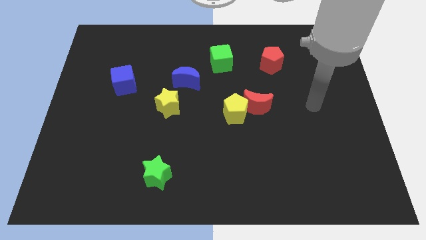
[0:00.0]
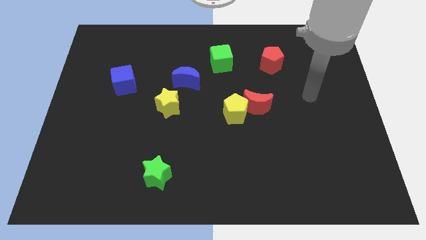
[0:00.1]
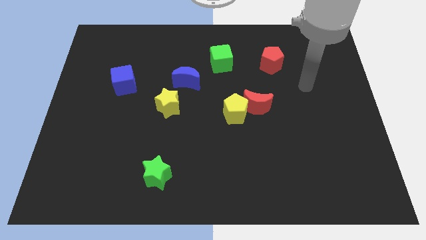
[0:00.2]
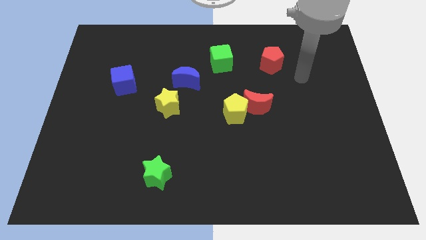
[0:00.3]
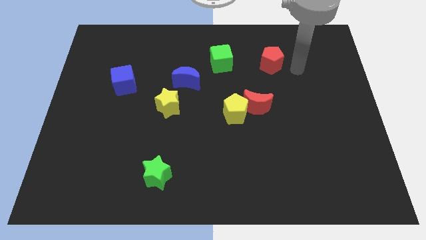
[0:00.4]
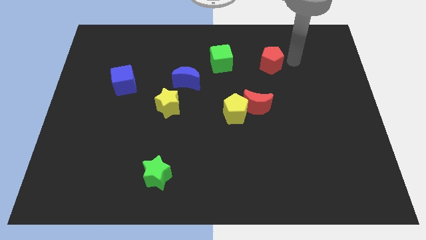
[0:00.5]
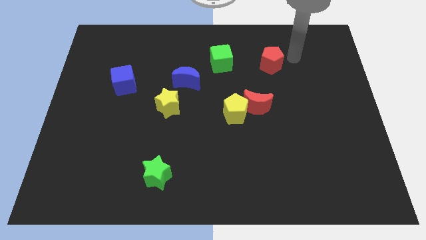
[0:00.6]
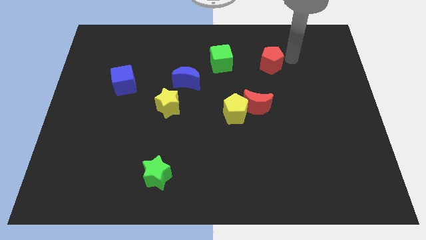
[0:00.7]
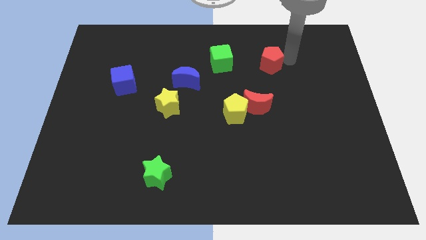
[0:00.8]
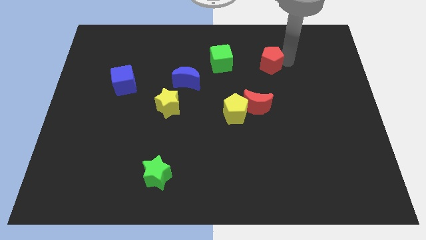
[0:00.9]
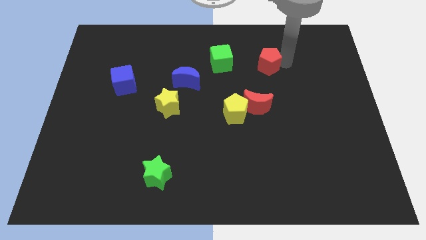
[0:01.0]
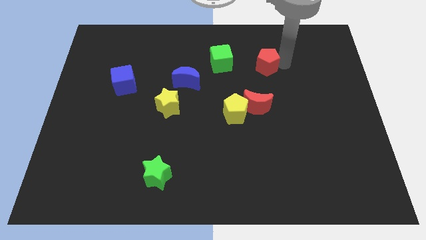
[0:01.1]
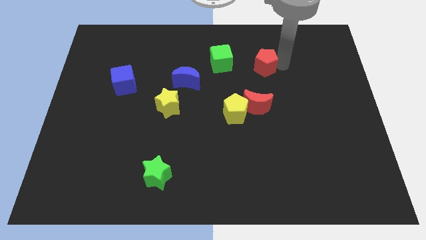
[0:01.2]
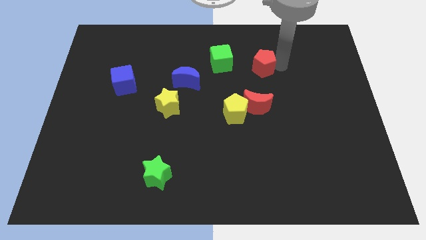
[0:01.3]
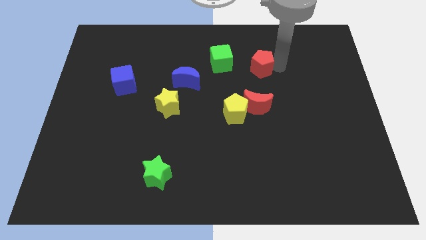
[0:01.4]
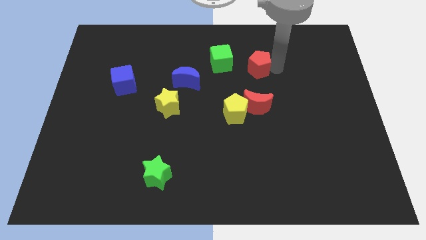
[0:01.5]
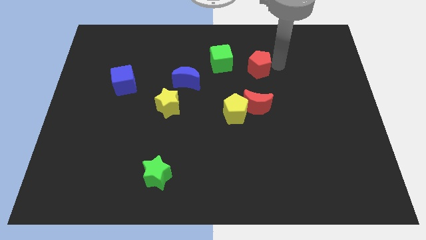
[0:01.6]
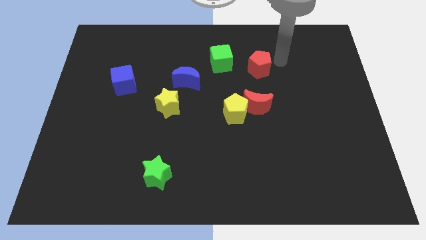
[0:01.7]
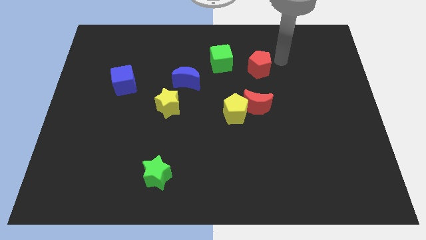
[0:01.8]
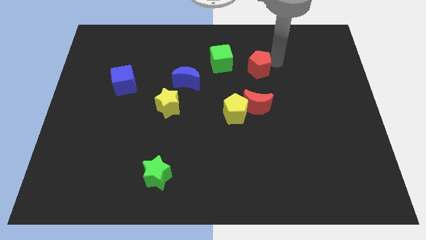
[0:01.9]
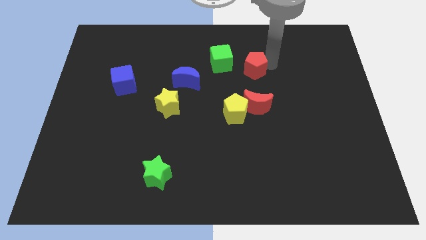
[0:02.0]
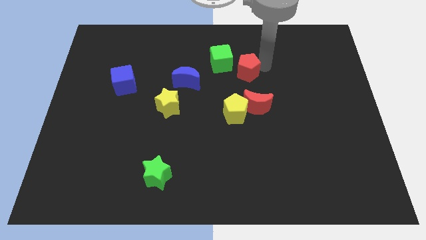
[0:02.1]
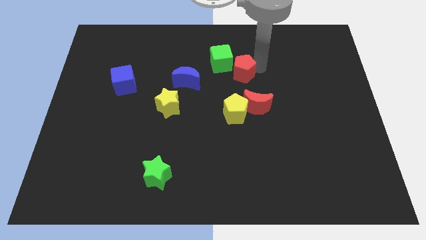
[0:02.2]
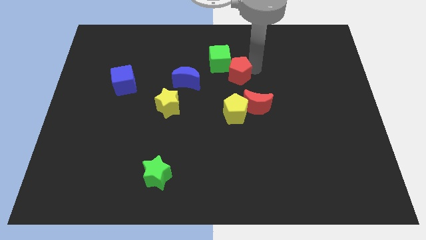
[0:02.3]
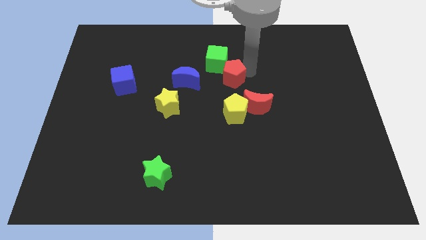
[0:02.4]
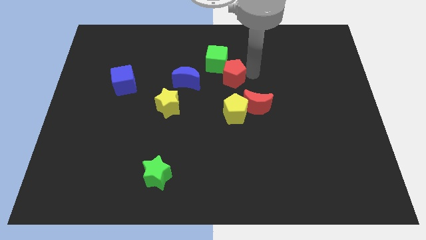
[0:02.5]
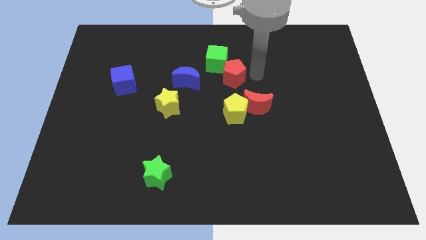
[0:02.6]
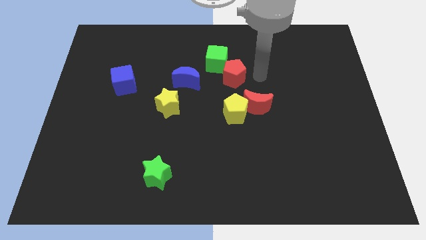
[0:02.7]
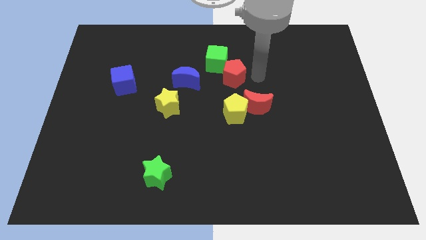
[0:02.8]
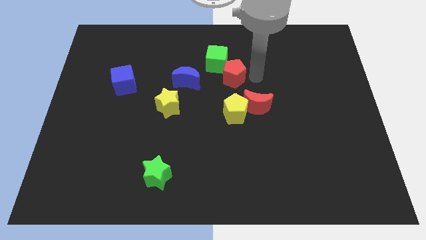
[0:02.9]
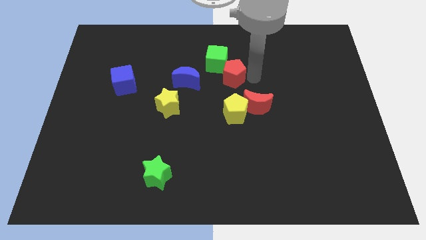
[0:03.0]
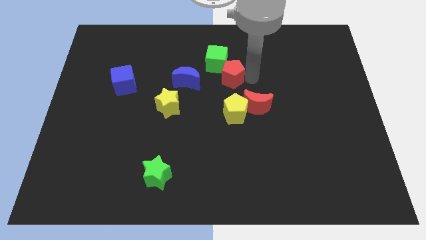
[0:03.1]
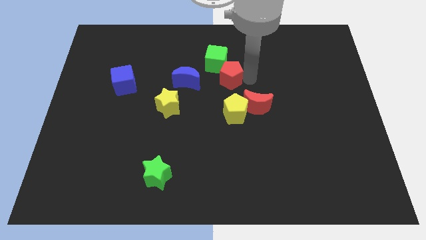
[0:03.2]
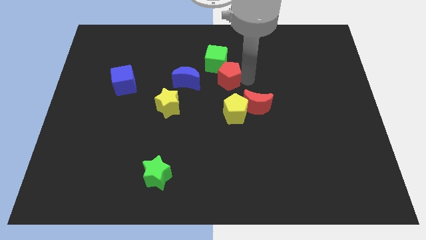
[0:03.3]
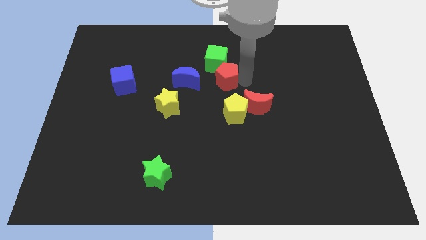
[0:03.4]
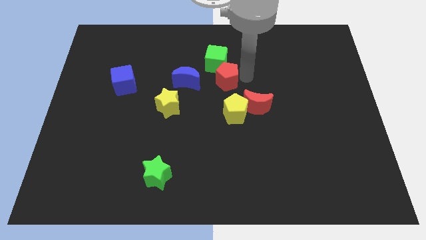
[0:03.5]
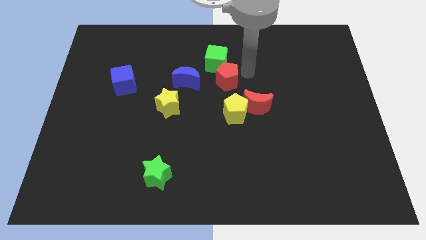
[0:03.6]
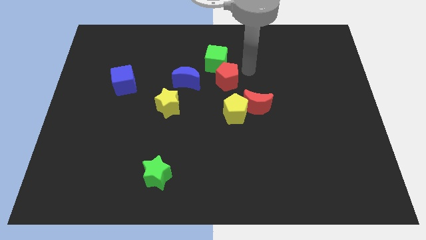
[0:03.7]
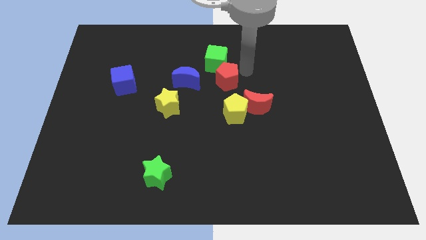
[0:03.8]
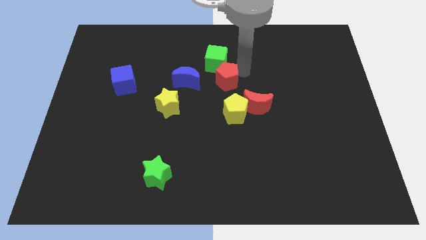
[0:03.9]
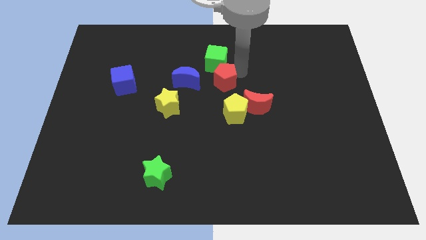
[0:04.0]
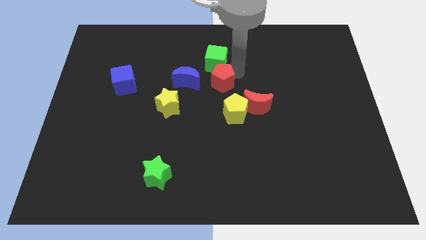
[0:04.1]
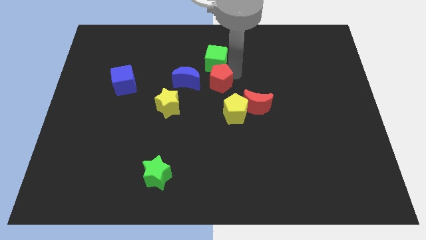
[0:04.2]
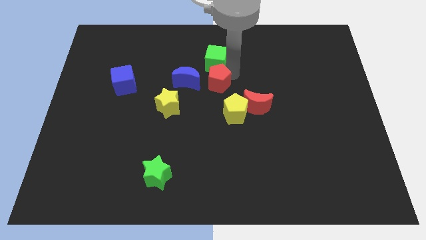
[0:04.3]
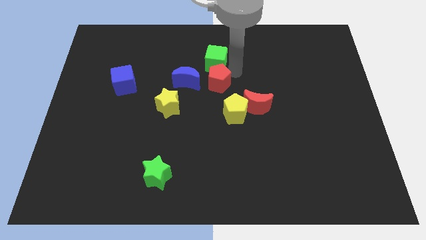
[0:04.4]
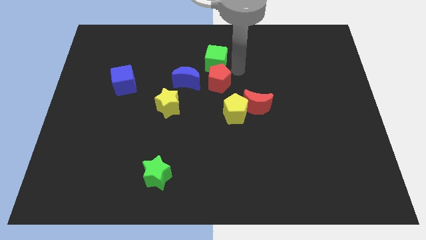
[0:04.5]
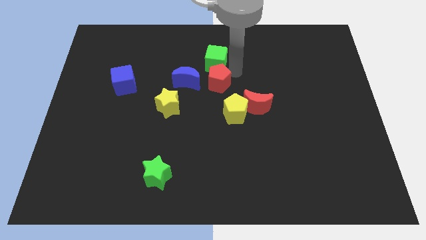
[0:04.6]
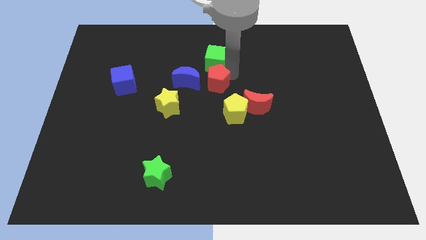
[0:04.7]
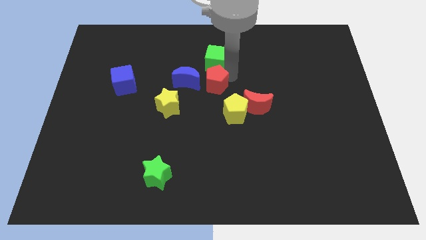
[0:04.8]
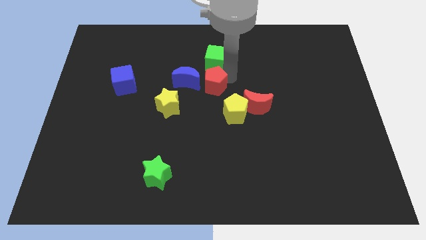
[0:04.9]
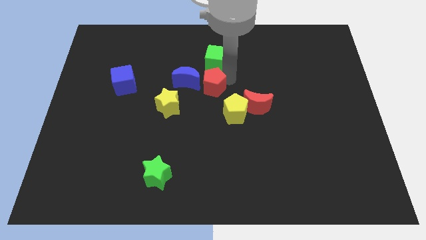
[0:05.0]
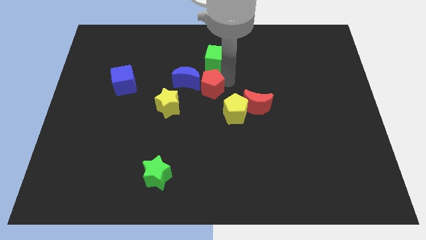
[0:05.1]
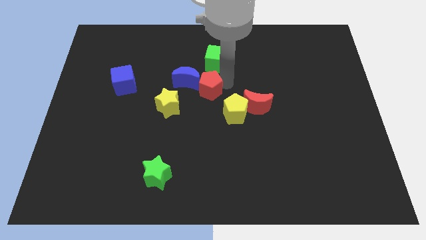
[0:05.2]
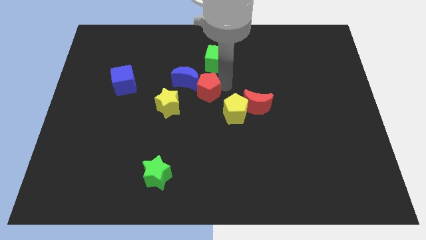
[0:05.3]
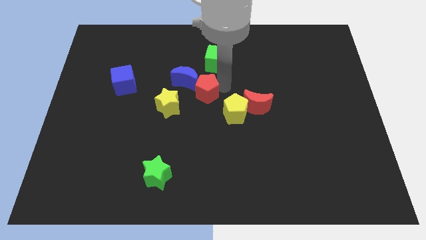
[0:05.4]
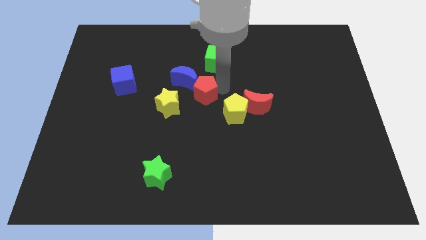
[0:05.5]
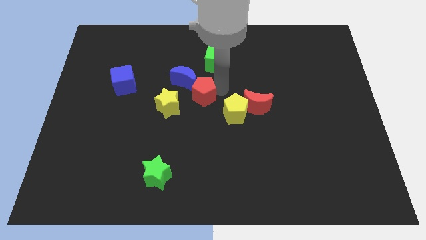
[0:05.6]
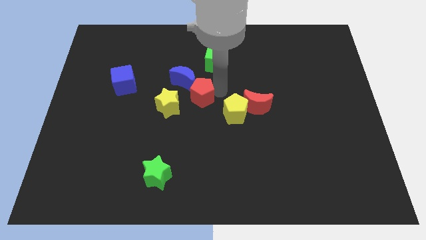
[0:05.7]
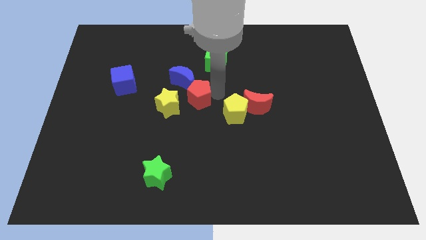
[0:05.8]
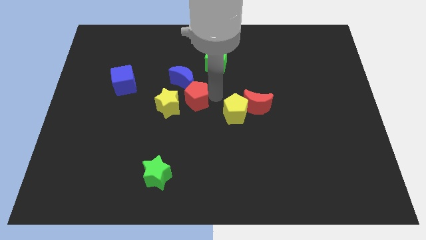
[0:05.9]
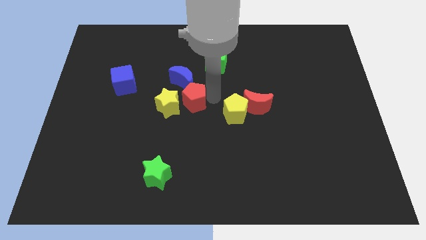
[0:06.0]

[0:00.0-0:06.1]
slide the red pentagon next to the yellow star

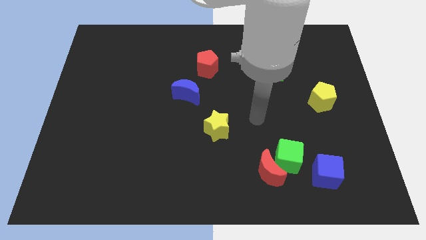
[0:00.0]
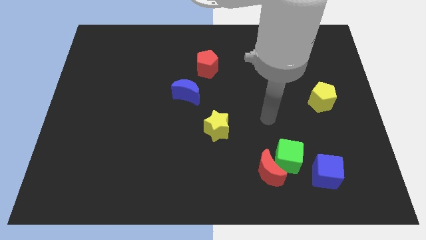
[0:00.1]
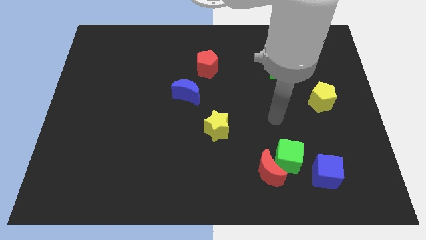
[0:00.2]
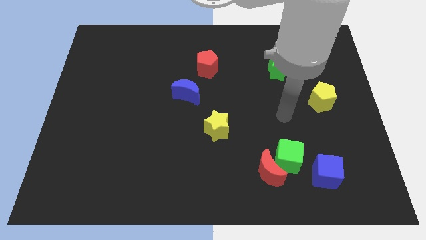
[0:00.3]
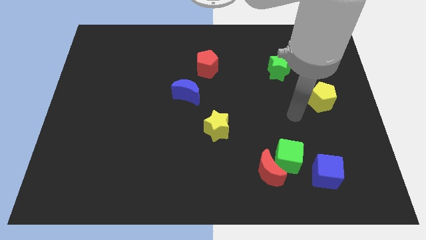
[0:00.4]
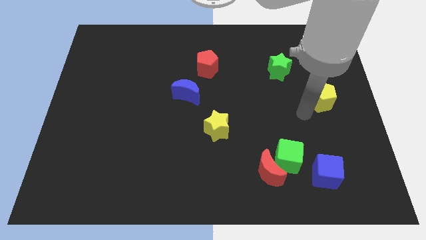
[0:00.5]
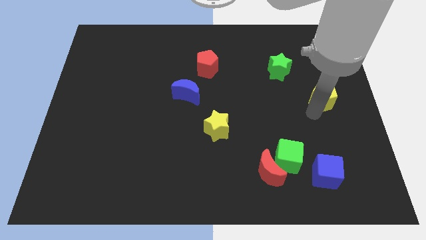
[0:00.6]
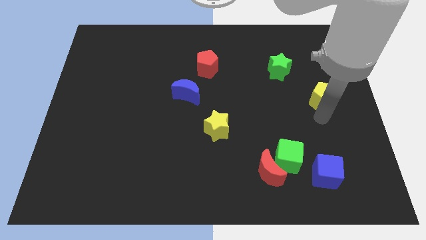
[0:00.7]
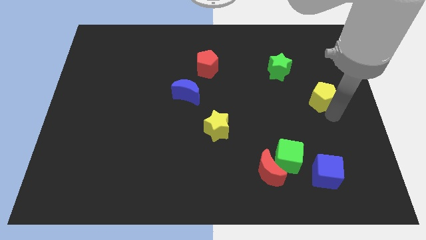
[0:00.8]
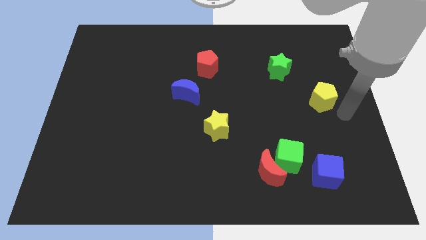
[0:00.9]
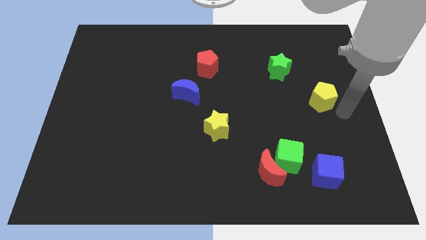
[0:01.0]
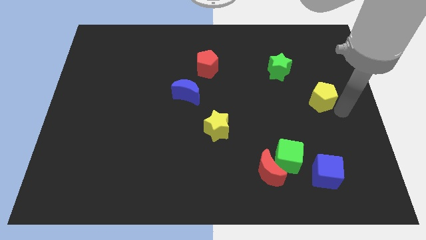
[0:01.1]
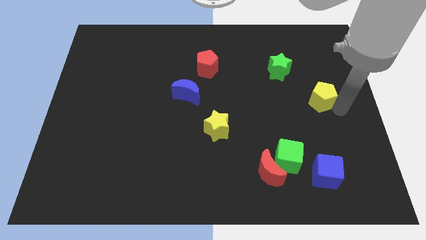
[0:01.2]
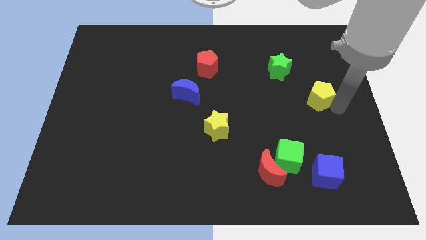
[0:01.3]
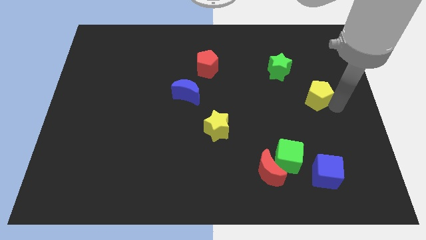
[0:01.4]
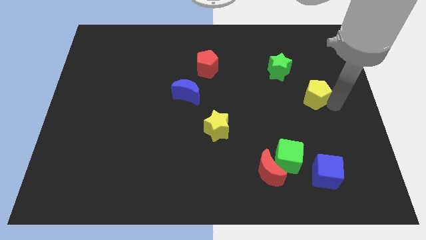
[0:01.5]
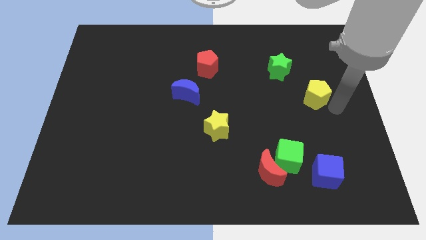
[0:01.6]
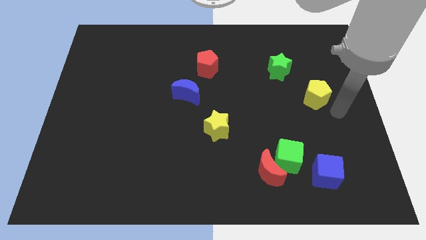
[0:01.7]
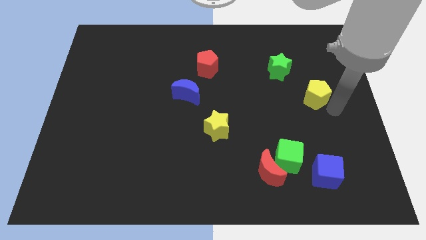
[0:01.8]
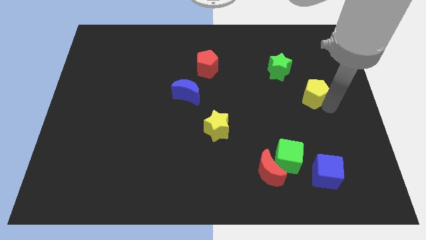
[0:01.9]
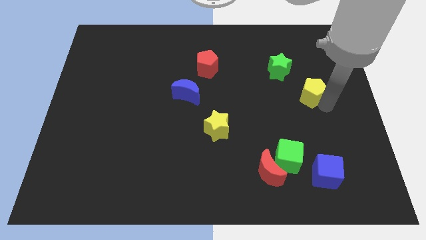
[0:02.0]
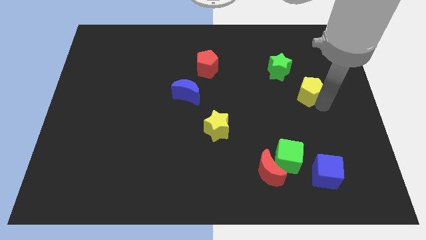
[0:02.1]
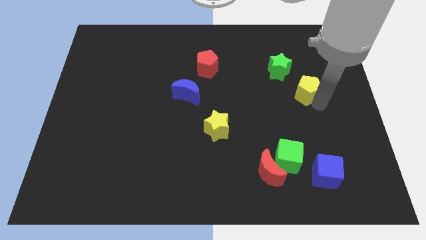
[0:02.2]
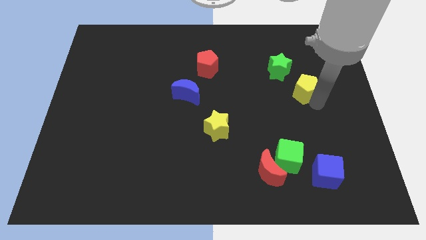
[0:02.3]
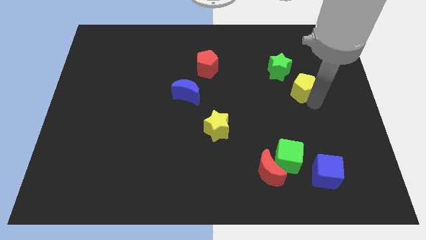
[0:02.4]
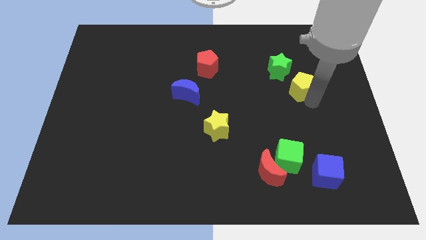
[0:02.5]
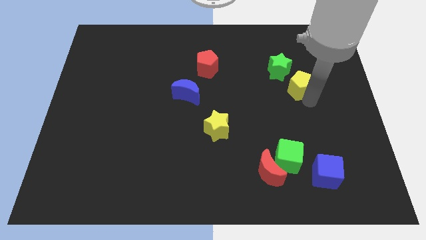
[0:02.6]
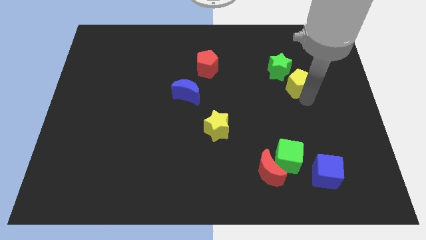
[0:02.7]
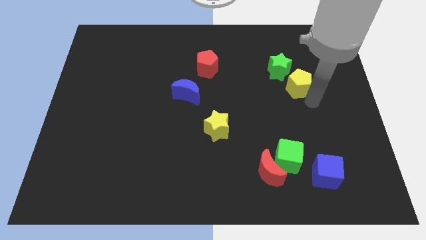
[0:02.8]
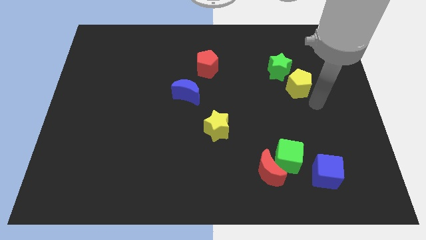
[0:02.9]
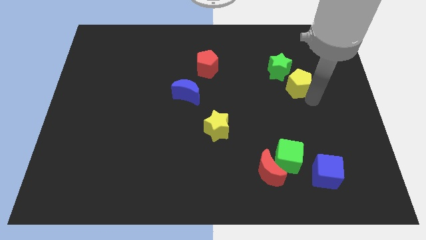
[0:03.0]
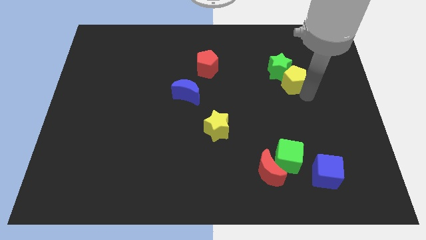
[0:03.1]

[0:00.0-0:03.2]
move the yellow pentagon next to the green star
